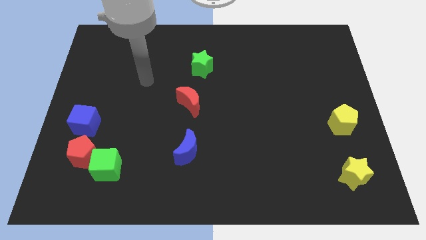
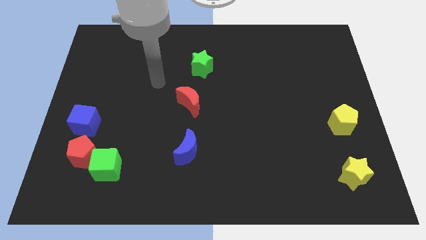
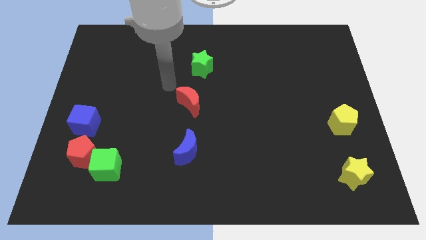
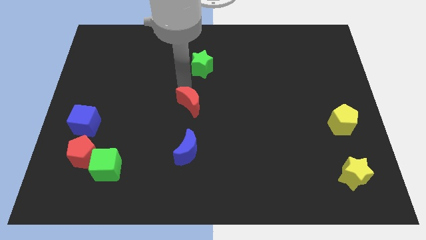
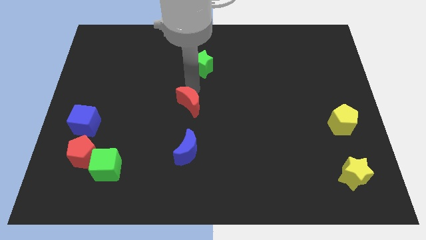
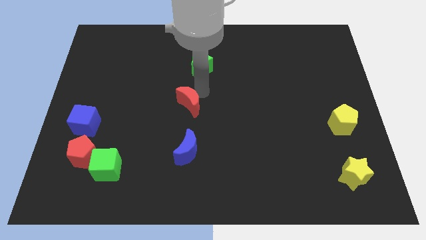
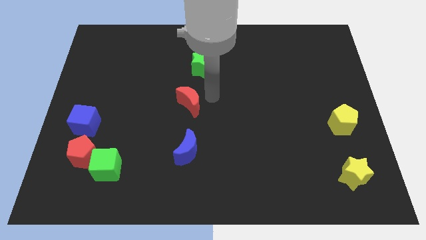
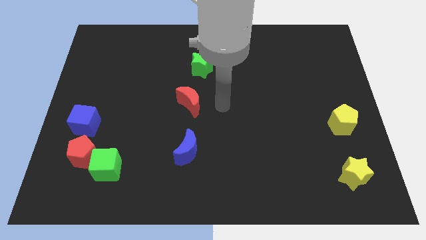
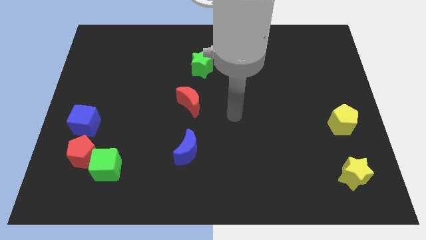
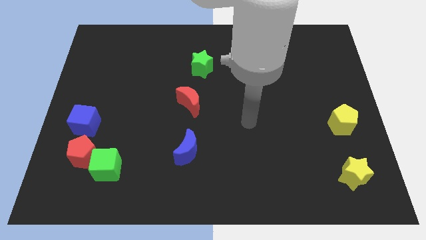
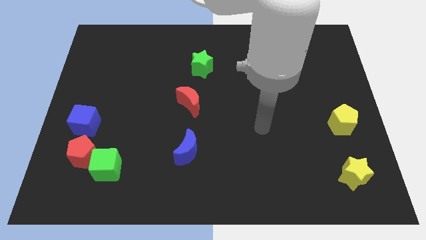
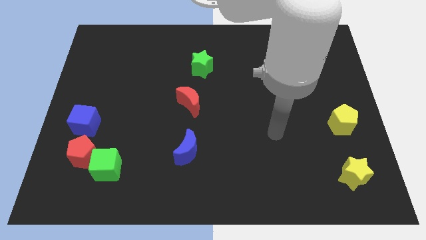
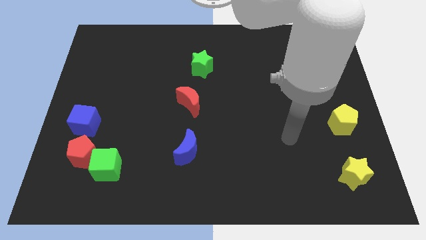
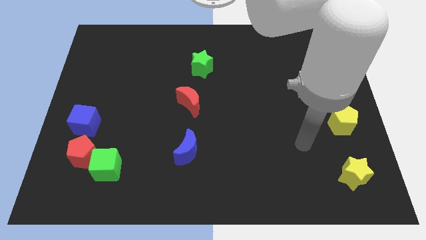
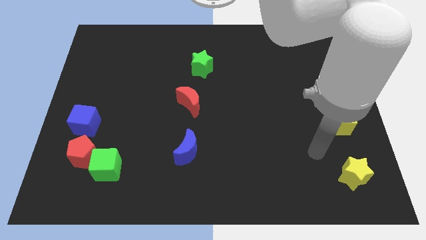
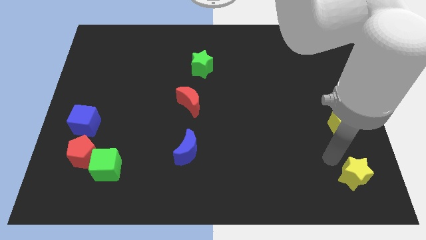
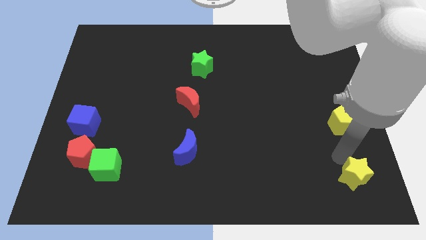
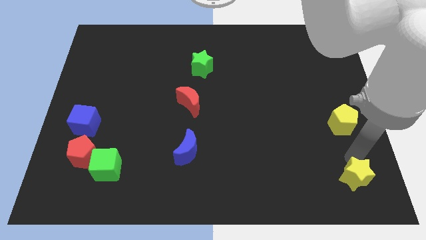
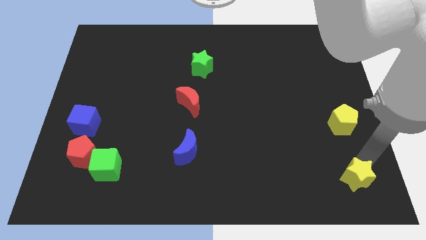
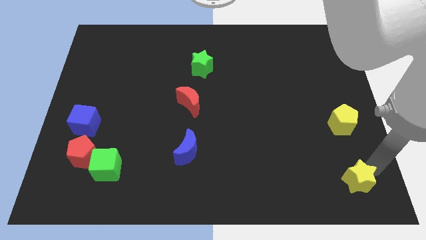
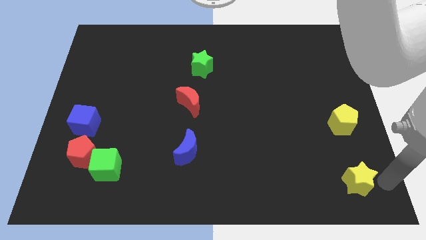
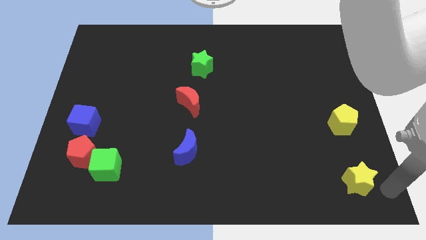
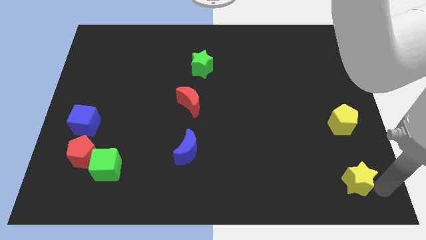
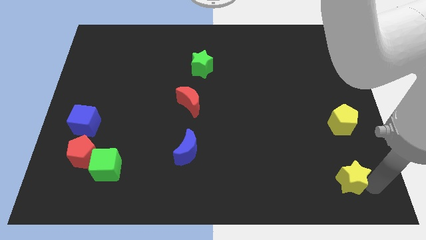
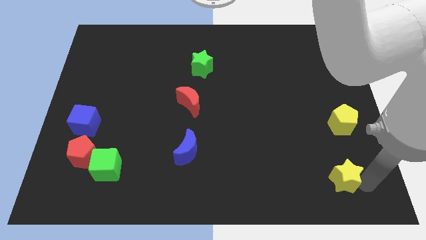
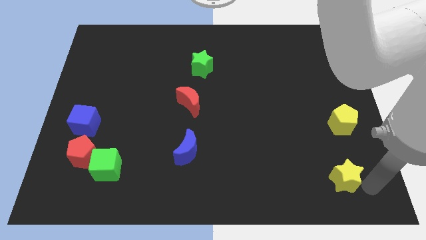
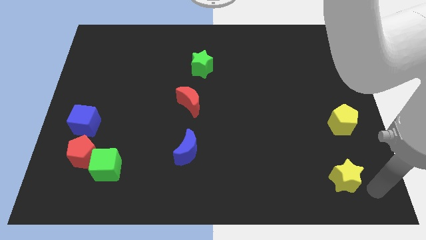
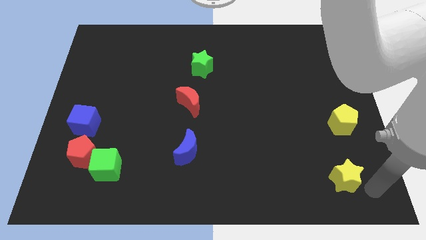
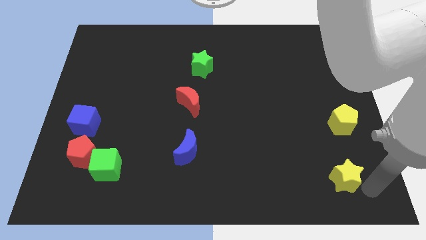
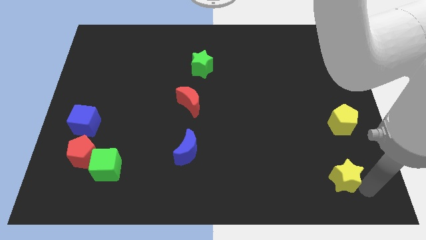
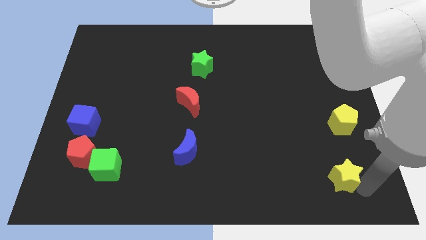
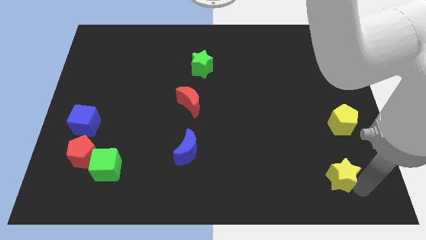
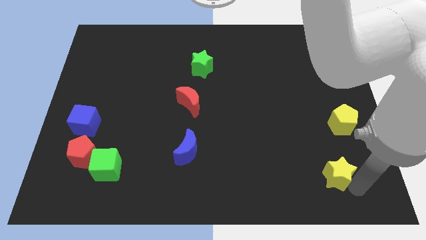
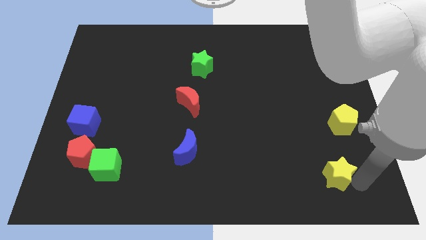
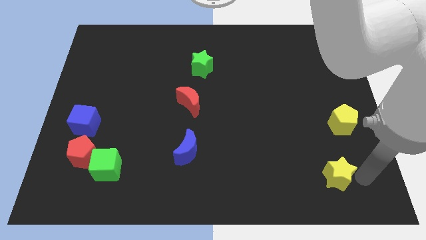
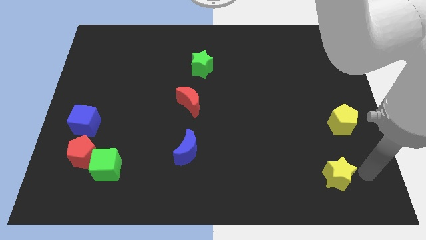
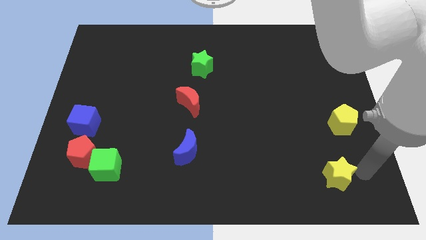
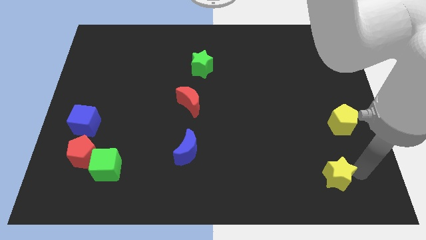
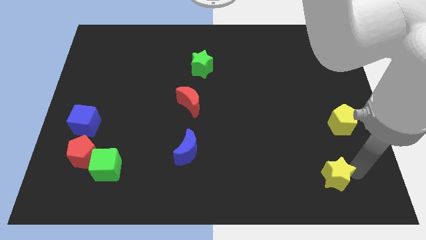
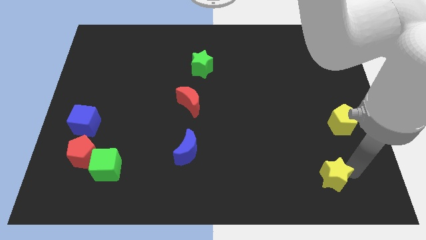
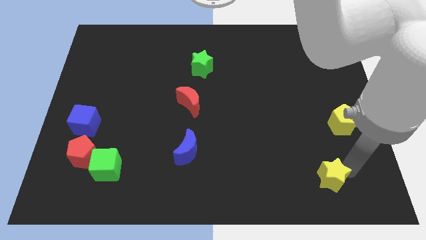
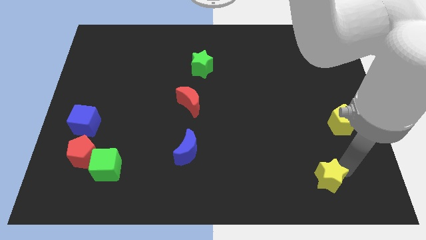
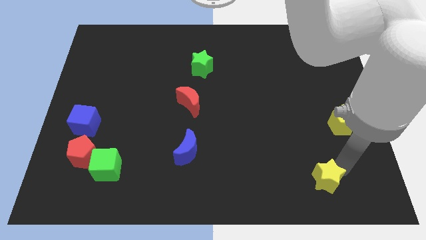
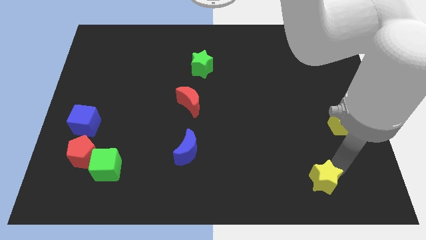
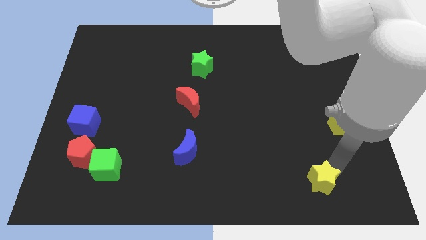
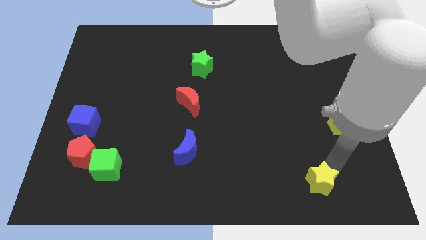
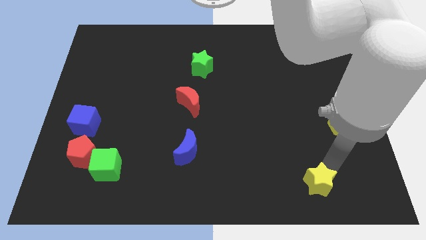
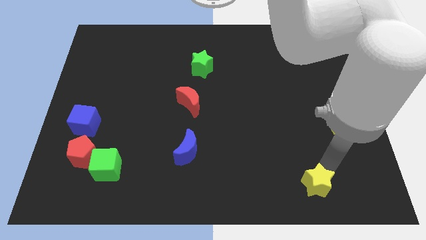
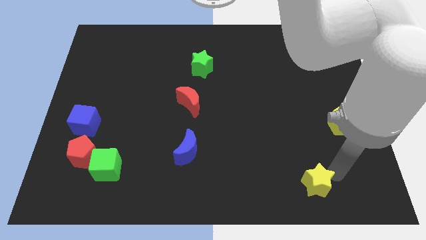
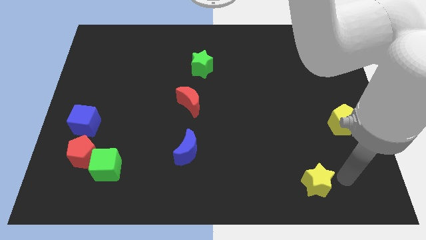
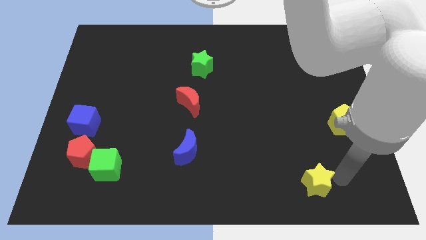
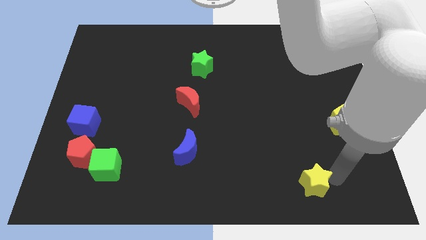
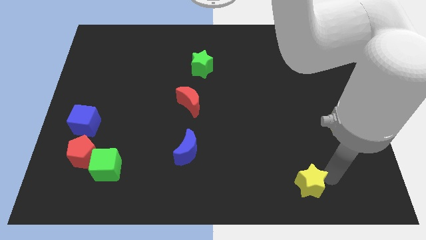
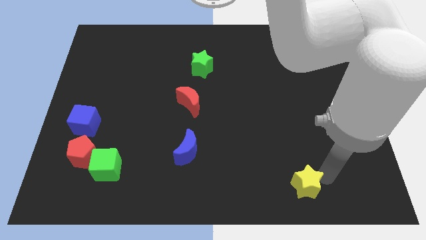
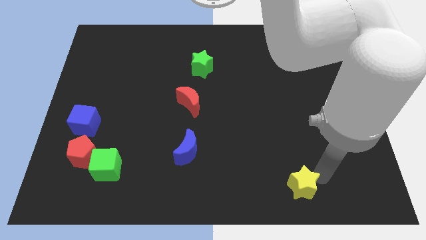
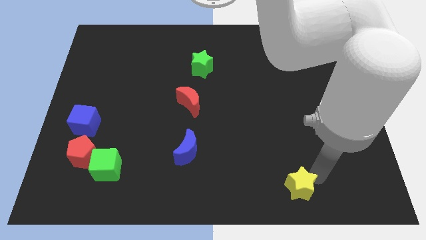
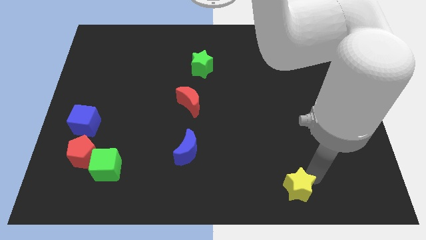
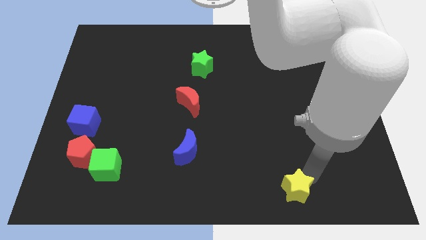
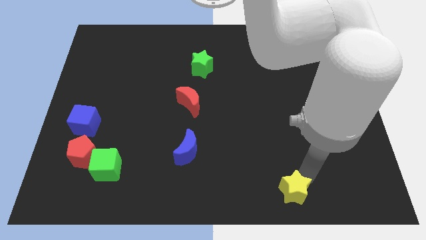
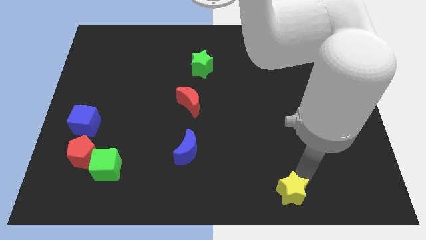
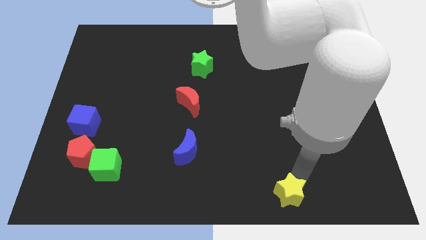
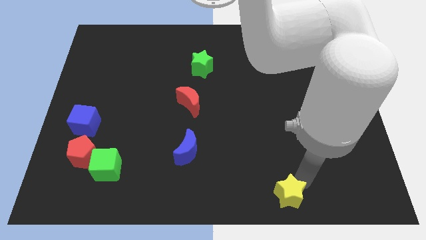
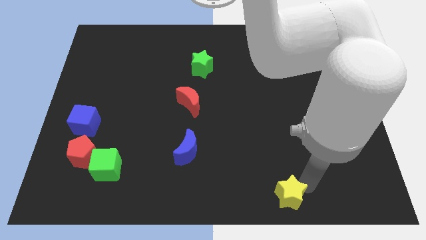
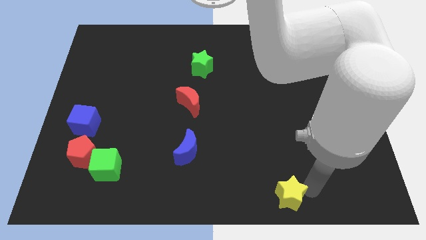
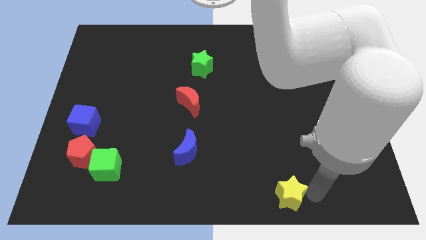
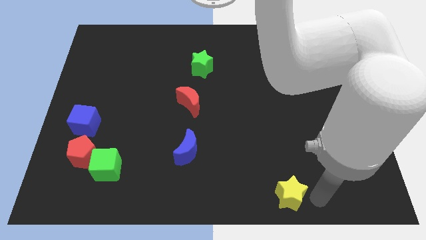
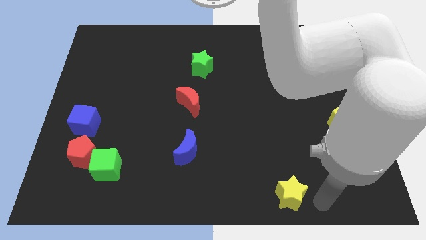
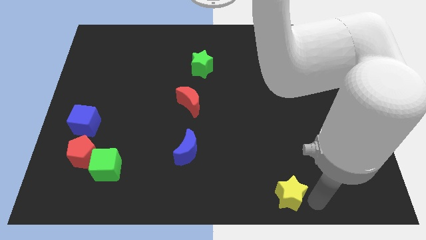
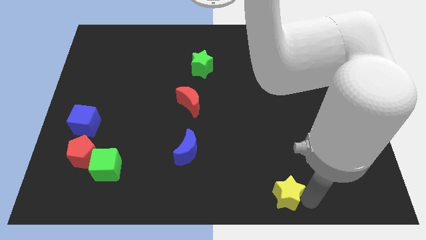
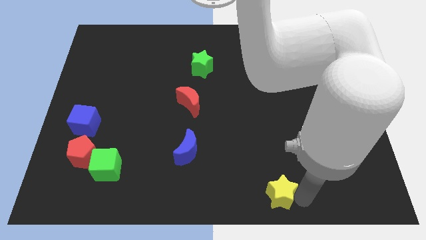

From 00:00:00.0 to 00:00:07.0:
push the yellow star to the bottom
